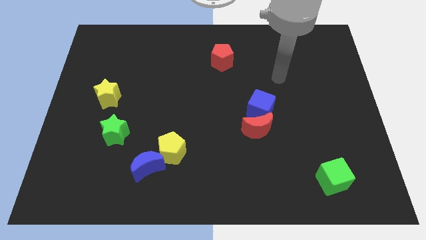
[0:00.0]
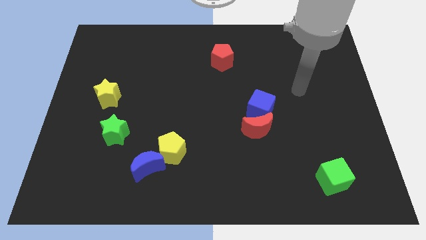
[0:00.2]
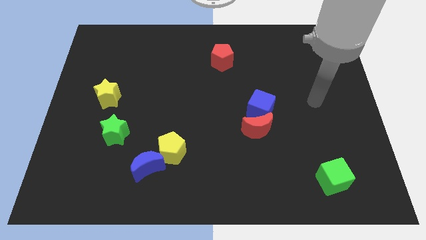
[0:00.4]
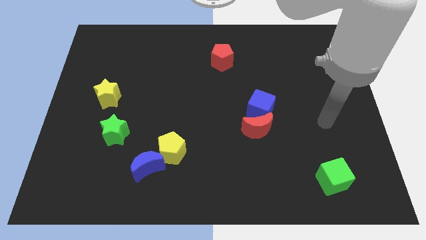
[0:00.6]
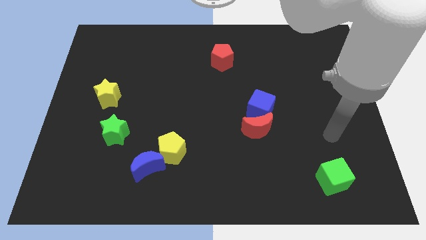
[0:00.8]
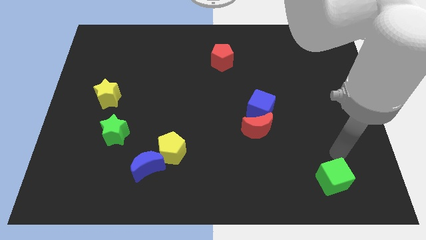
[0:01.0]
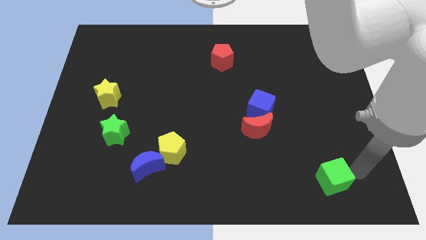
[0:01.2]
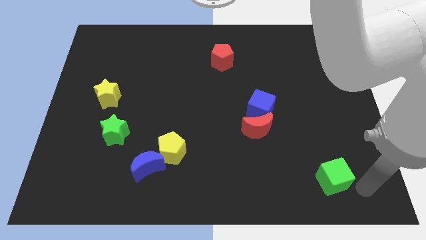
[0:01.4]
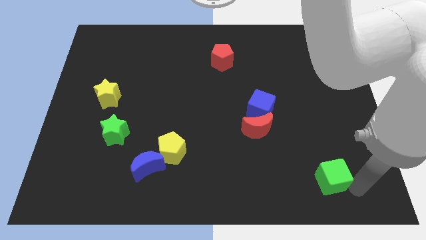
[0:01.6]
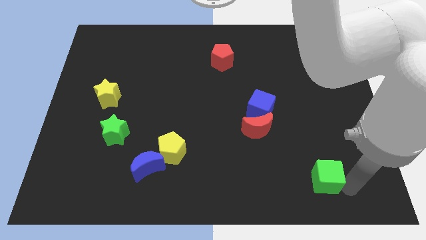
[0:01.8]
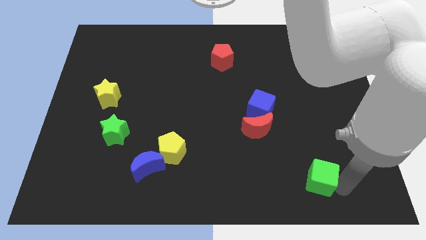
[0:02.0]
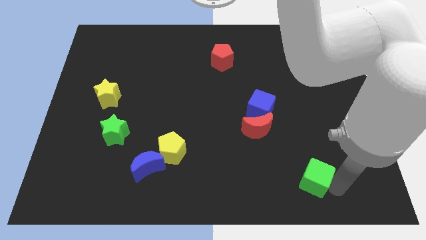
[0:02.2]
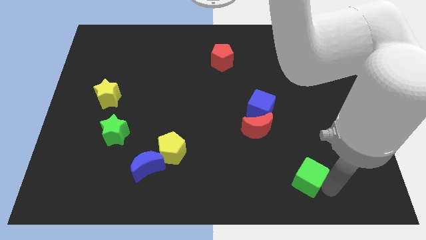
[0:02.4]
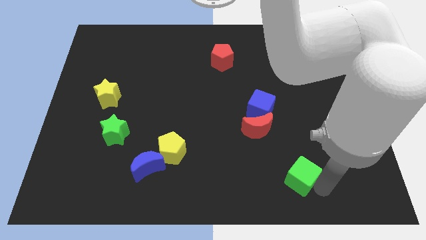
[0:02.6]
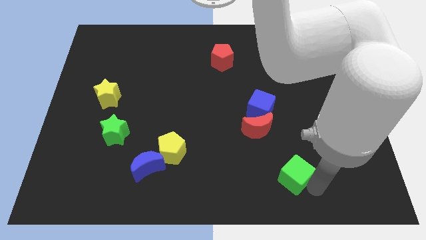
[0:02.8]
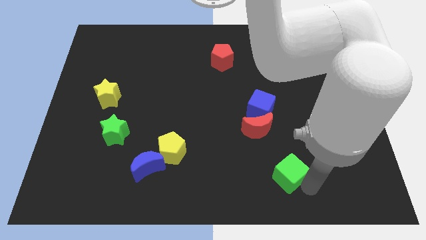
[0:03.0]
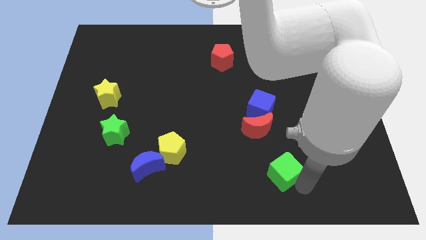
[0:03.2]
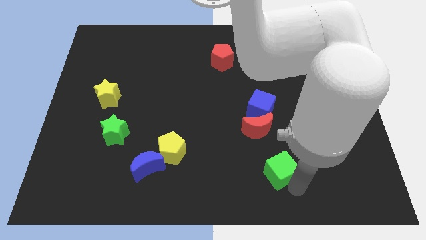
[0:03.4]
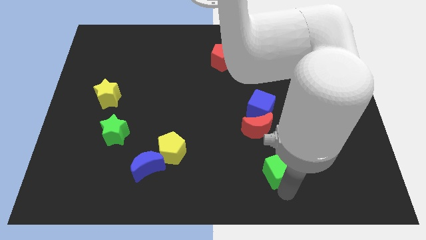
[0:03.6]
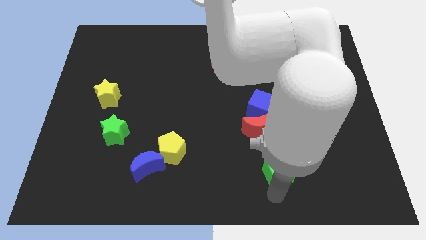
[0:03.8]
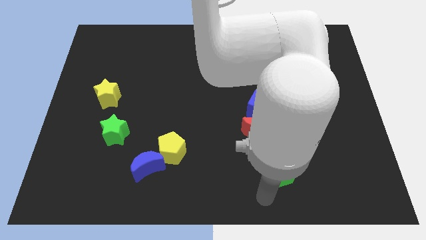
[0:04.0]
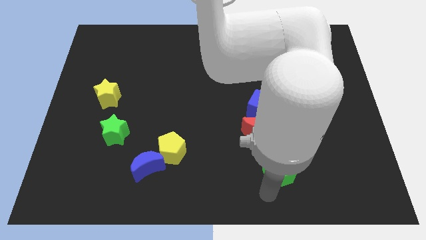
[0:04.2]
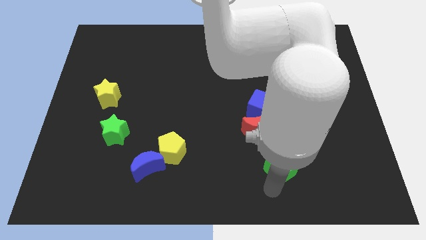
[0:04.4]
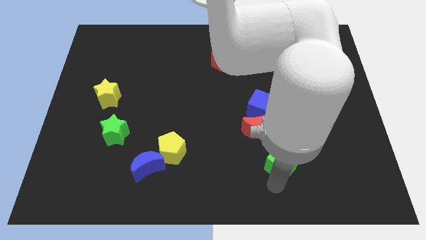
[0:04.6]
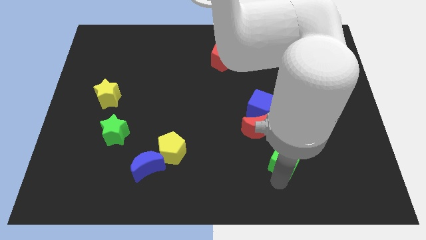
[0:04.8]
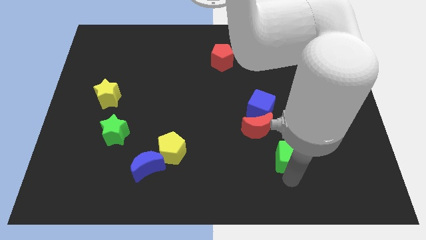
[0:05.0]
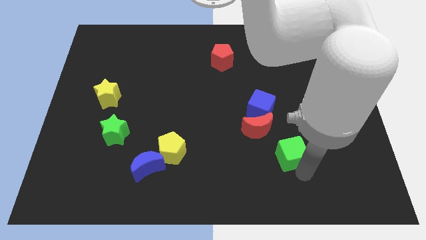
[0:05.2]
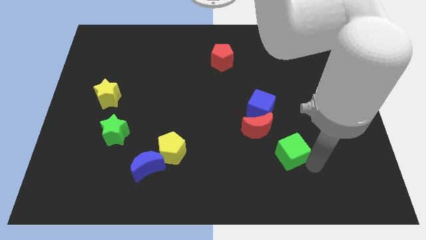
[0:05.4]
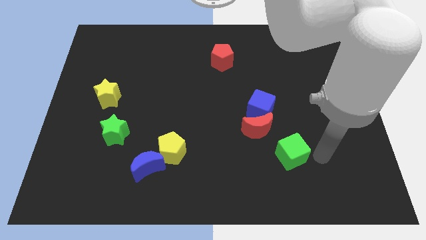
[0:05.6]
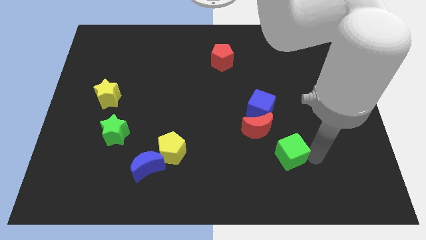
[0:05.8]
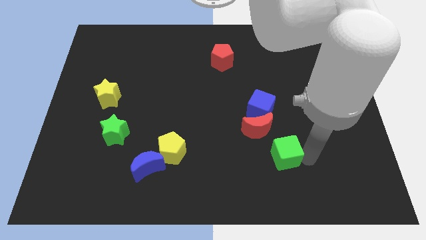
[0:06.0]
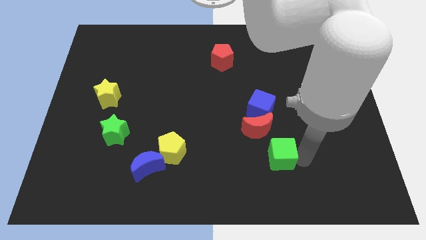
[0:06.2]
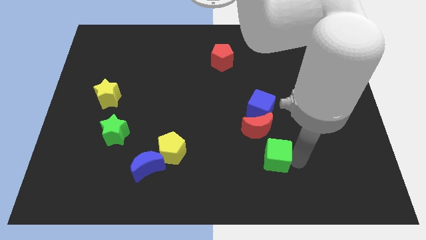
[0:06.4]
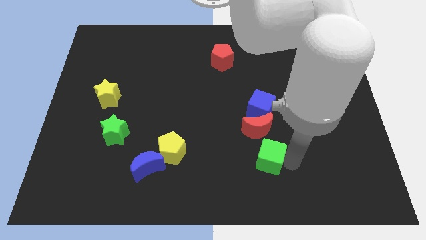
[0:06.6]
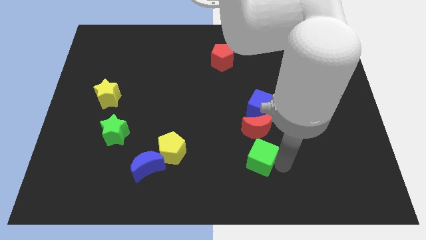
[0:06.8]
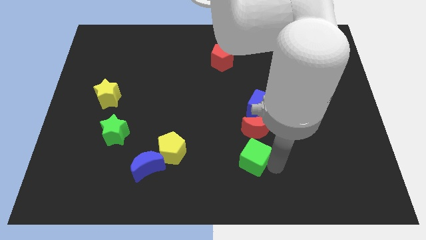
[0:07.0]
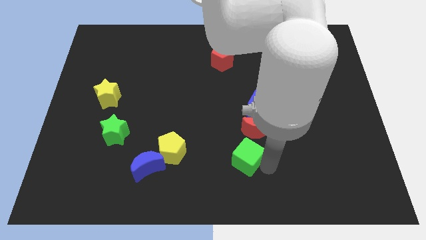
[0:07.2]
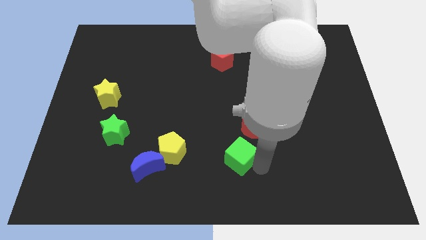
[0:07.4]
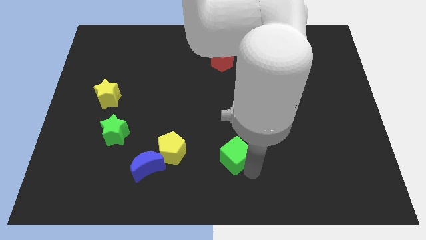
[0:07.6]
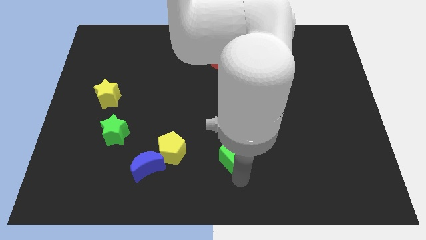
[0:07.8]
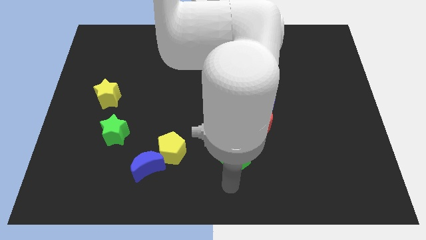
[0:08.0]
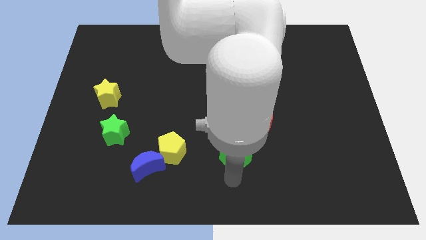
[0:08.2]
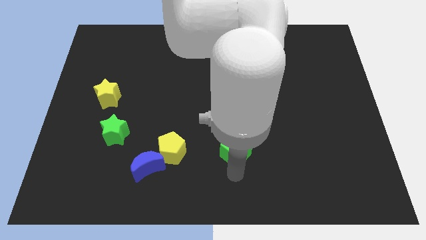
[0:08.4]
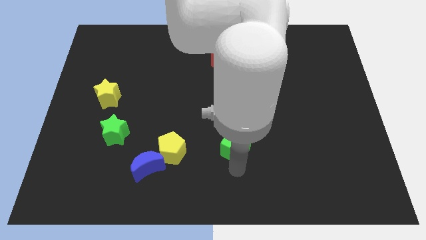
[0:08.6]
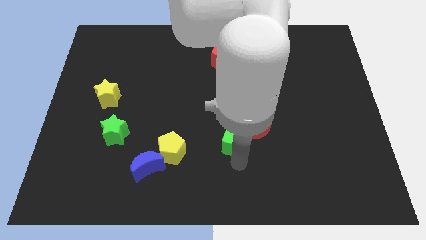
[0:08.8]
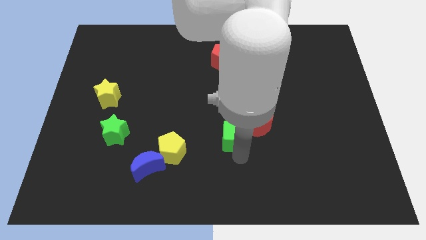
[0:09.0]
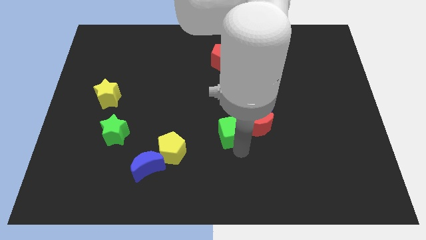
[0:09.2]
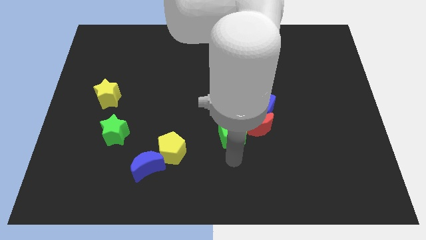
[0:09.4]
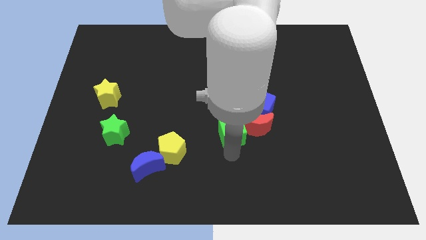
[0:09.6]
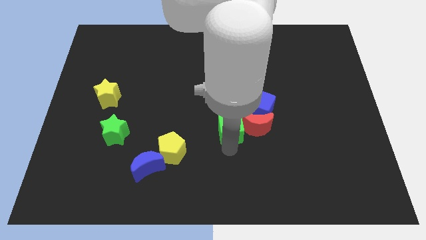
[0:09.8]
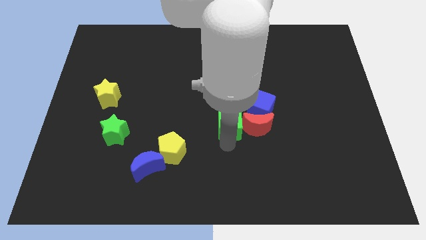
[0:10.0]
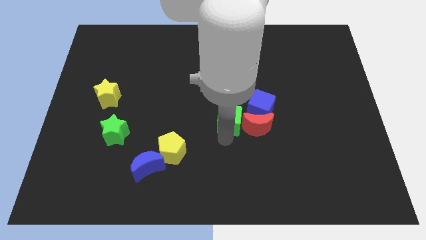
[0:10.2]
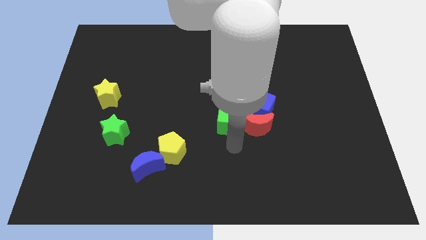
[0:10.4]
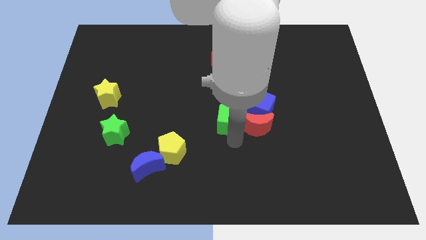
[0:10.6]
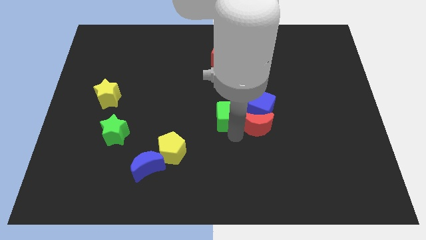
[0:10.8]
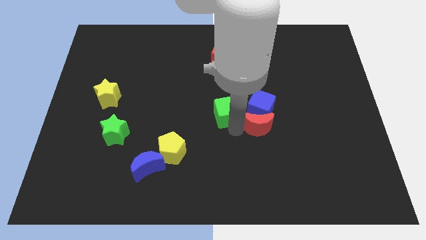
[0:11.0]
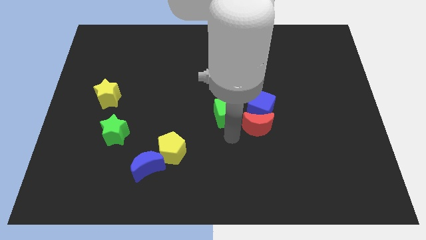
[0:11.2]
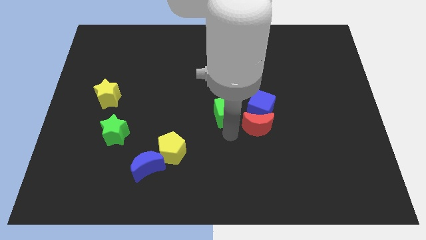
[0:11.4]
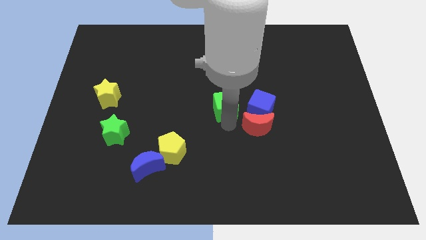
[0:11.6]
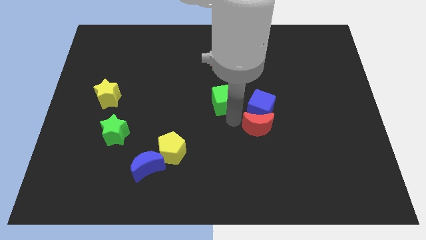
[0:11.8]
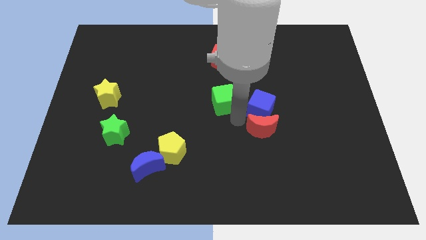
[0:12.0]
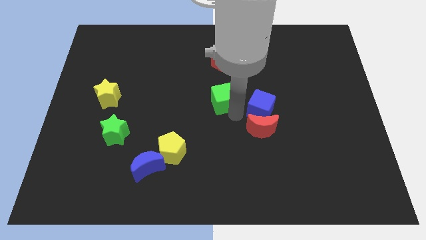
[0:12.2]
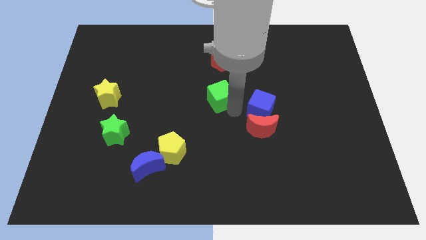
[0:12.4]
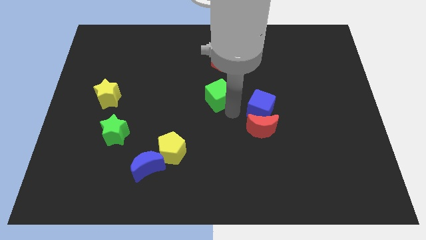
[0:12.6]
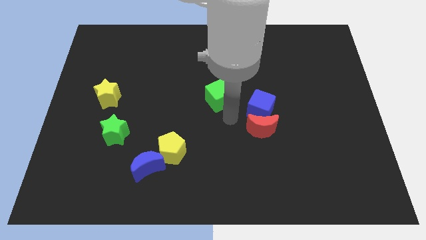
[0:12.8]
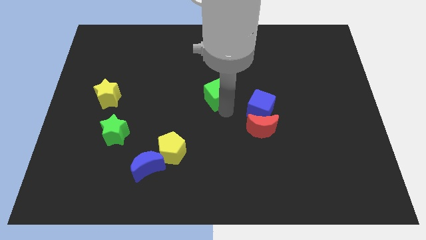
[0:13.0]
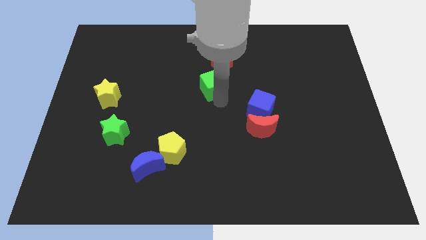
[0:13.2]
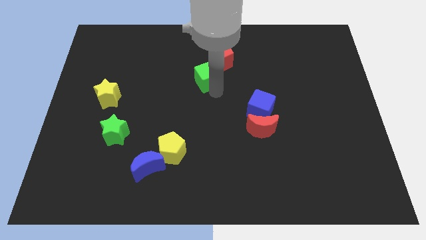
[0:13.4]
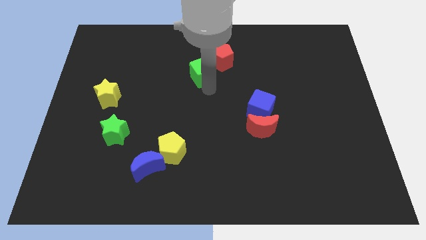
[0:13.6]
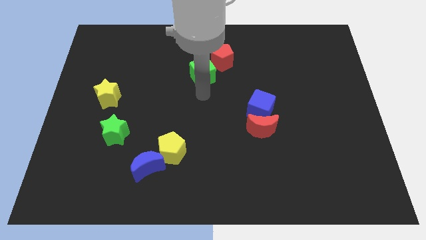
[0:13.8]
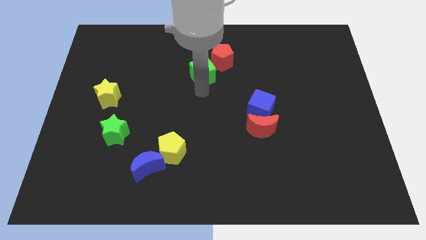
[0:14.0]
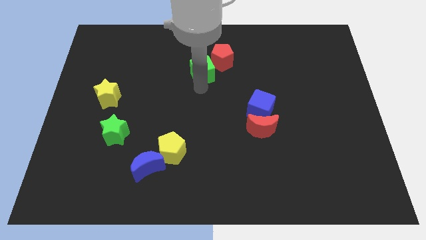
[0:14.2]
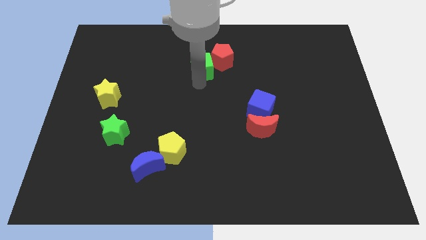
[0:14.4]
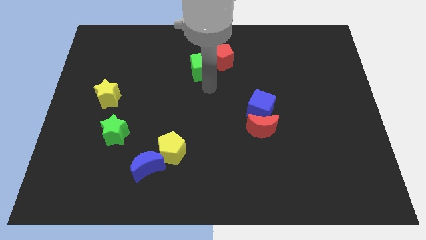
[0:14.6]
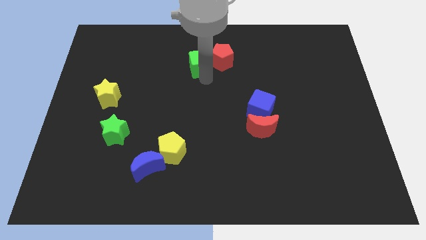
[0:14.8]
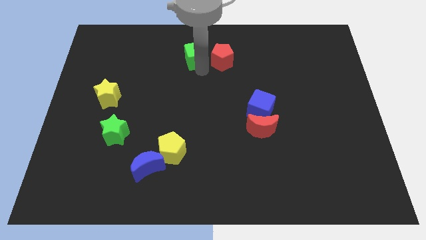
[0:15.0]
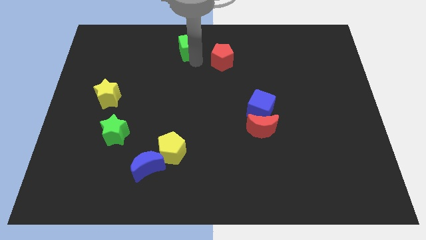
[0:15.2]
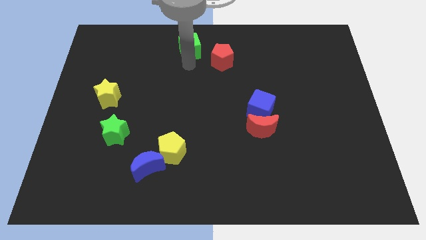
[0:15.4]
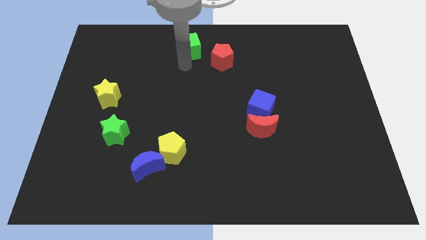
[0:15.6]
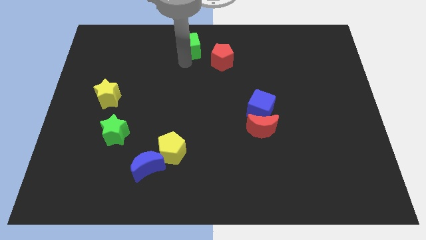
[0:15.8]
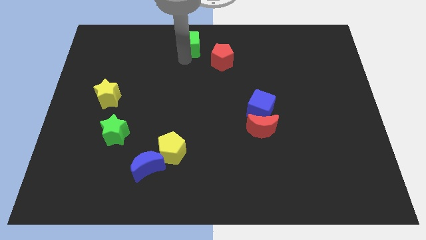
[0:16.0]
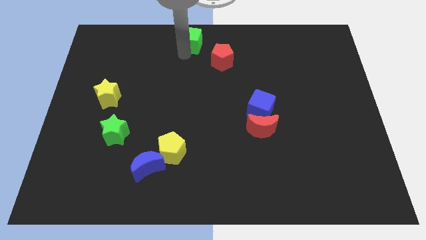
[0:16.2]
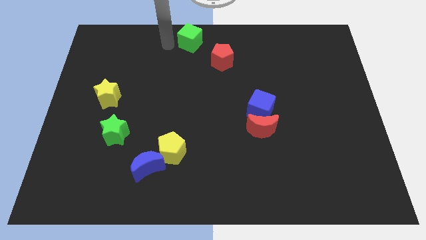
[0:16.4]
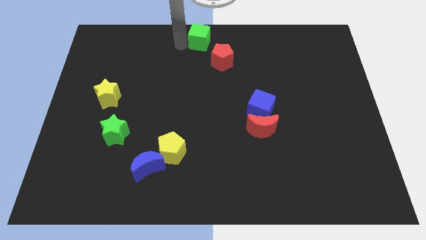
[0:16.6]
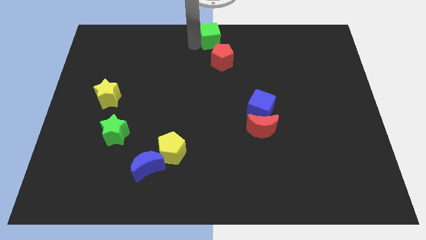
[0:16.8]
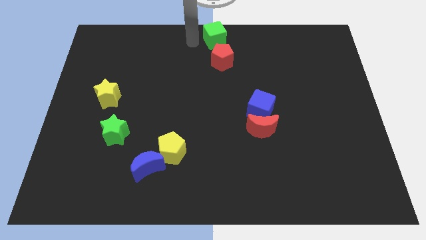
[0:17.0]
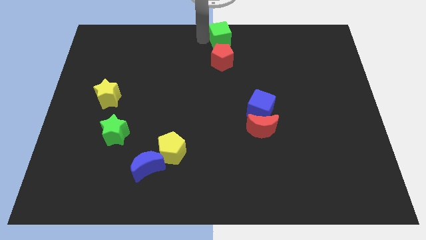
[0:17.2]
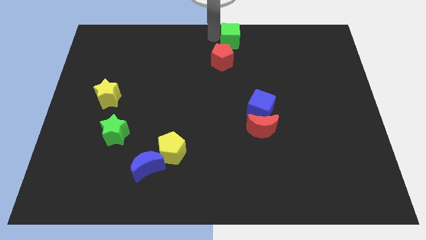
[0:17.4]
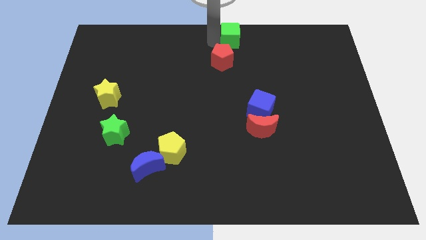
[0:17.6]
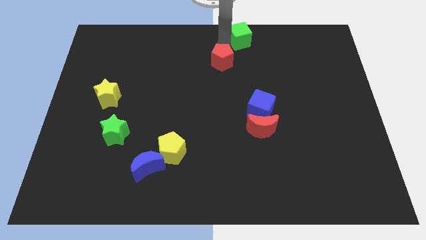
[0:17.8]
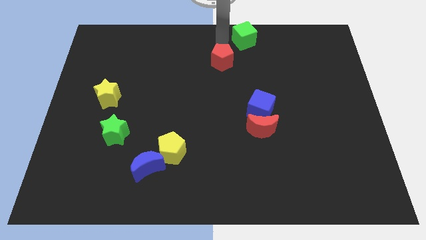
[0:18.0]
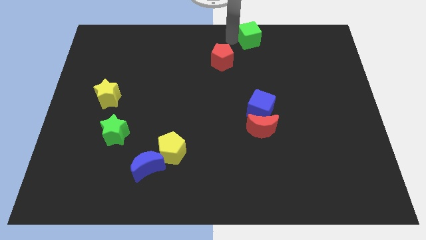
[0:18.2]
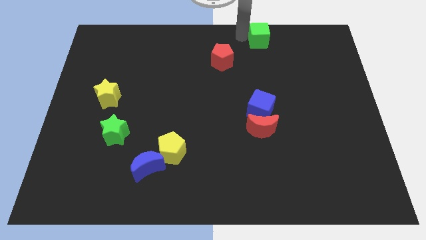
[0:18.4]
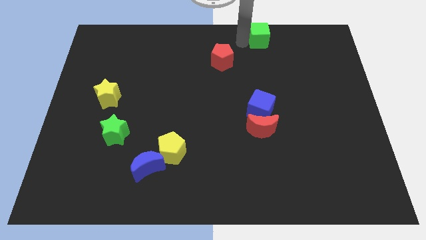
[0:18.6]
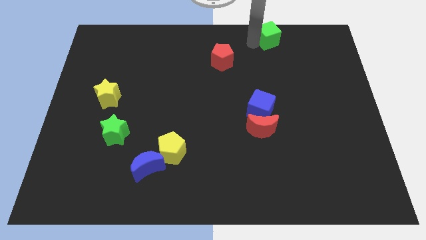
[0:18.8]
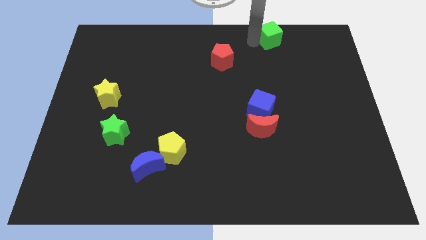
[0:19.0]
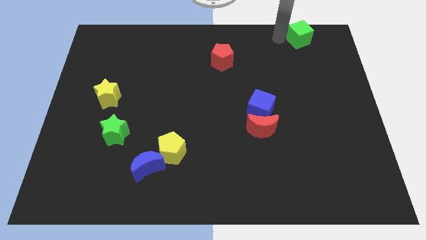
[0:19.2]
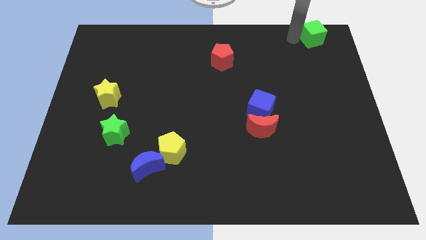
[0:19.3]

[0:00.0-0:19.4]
slide the green cube to the top right
